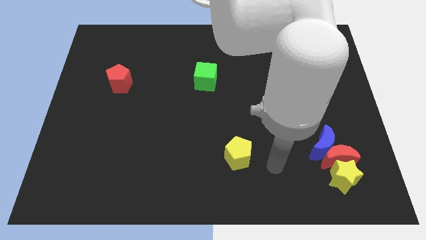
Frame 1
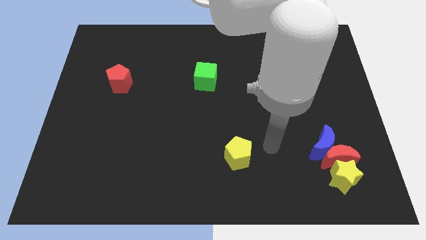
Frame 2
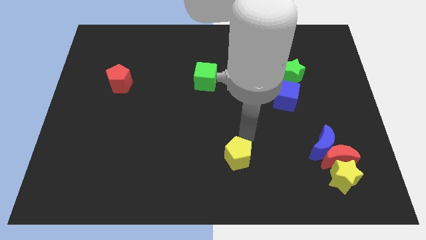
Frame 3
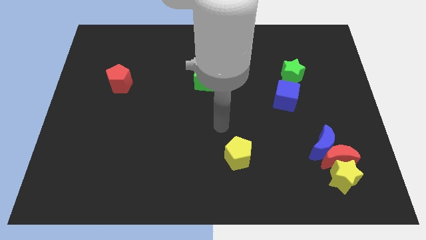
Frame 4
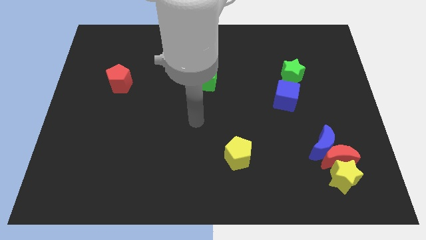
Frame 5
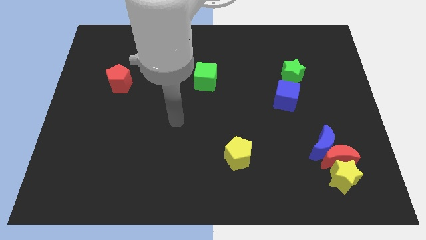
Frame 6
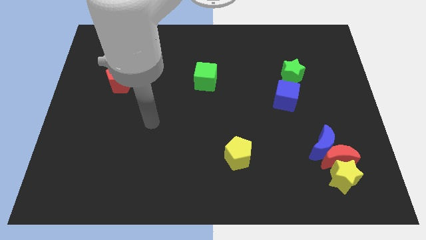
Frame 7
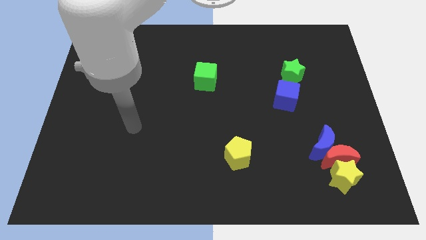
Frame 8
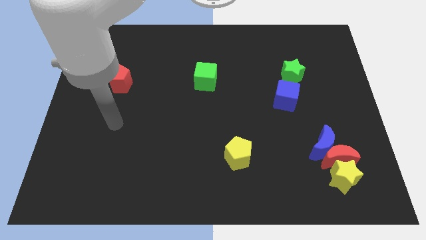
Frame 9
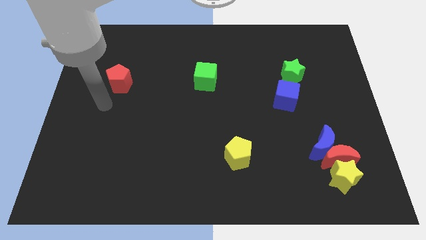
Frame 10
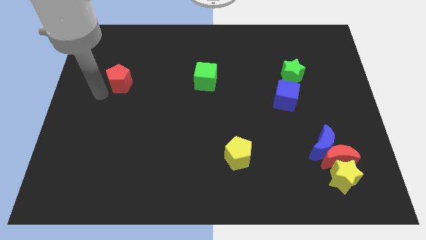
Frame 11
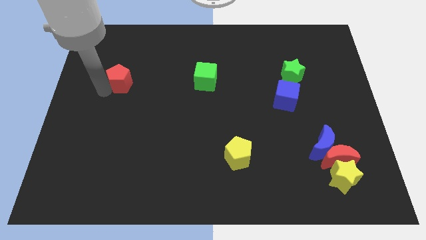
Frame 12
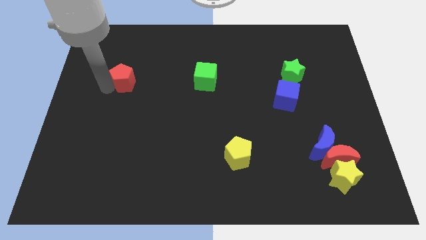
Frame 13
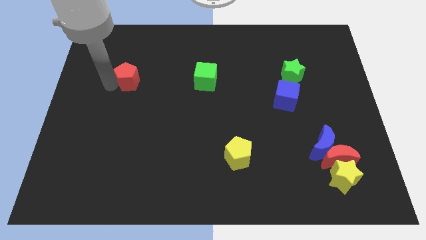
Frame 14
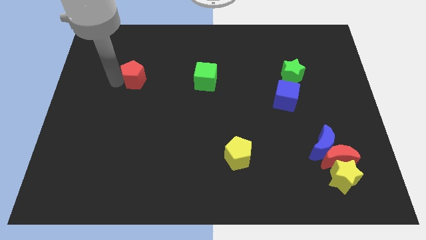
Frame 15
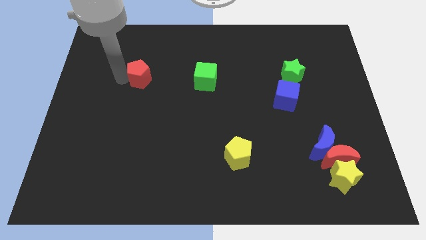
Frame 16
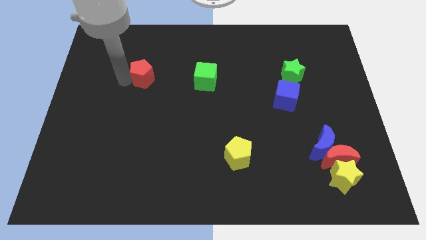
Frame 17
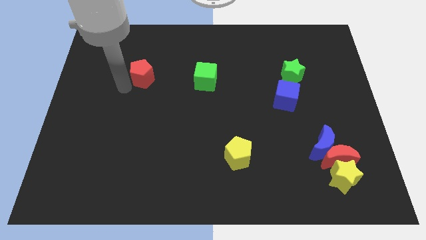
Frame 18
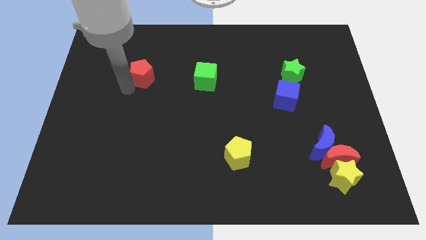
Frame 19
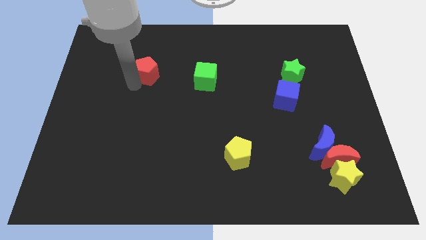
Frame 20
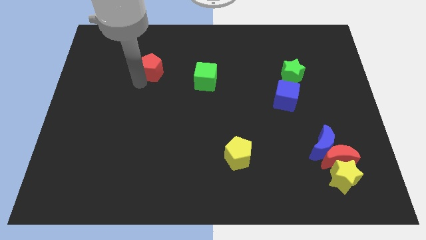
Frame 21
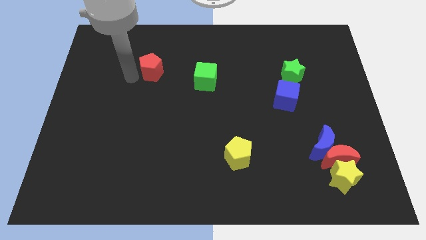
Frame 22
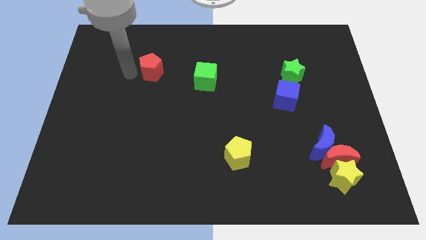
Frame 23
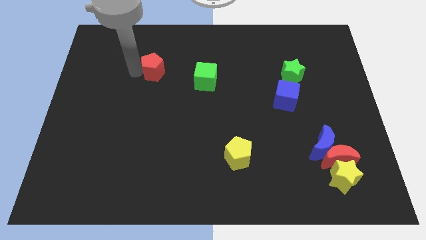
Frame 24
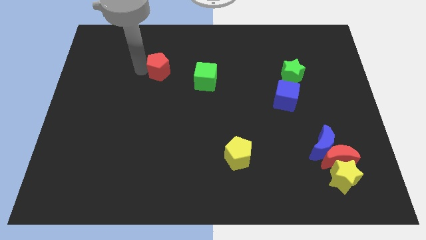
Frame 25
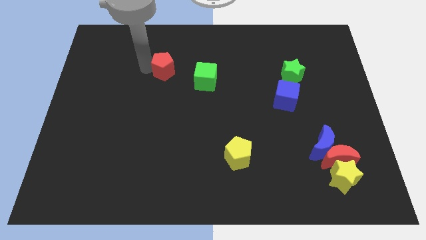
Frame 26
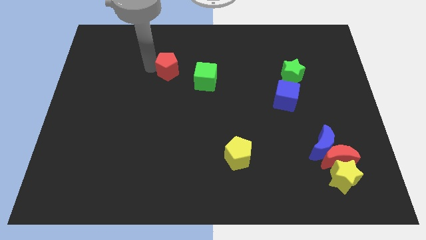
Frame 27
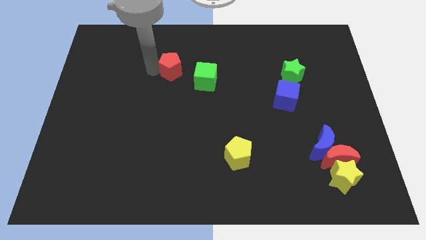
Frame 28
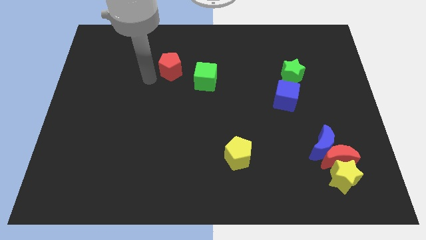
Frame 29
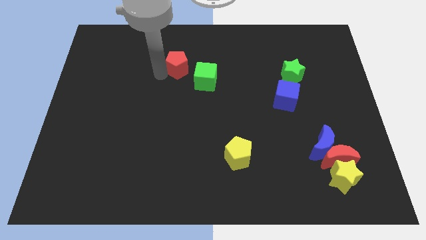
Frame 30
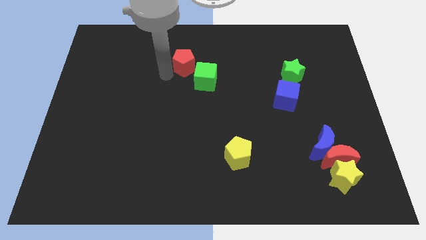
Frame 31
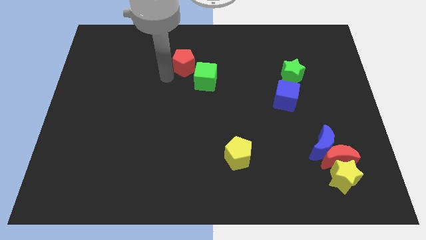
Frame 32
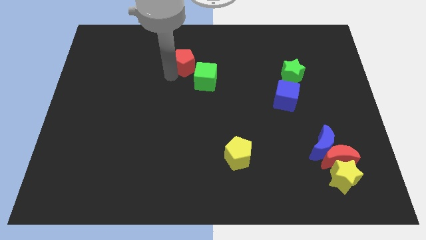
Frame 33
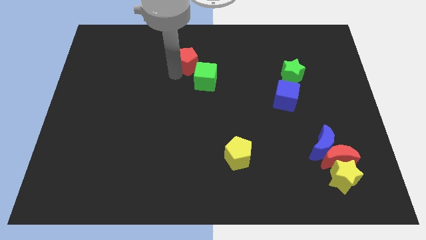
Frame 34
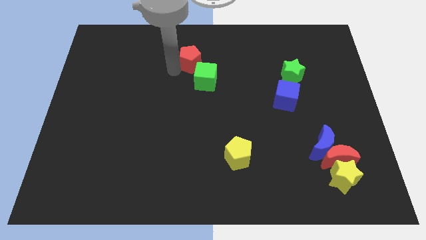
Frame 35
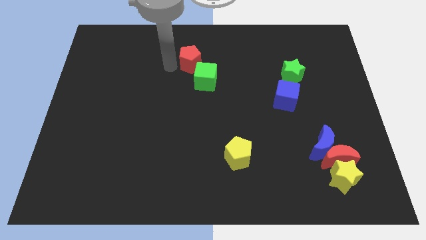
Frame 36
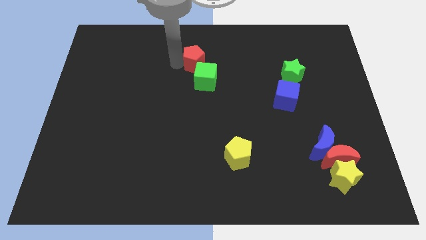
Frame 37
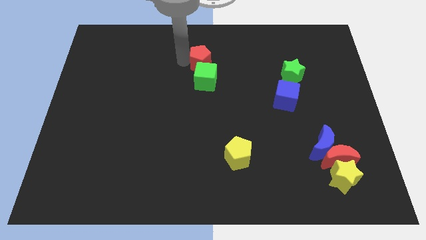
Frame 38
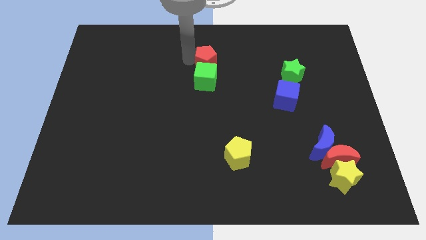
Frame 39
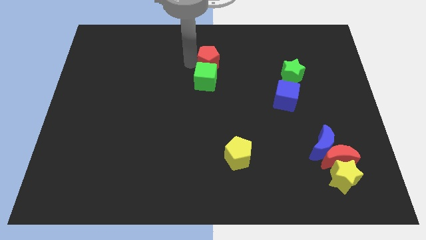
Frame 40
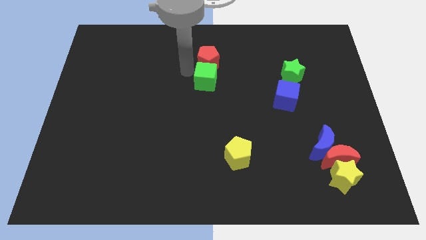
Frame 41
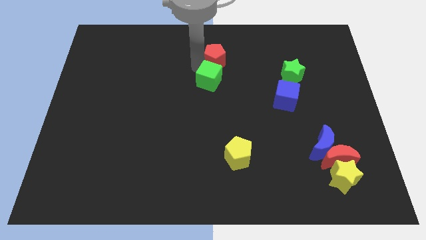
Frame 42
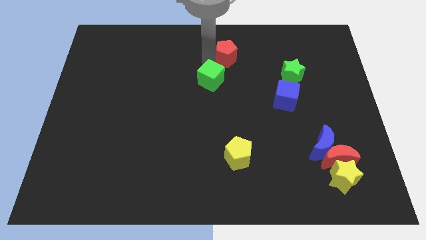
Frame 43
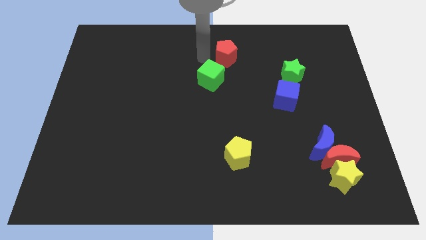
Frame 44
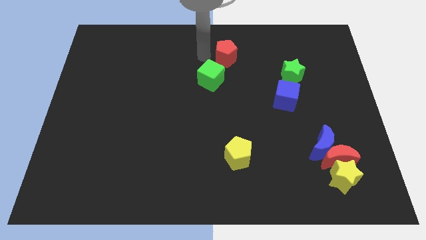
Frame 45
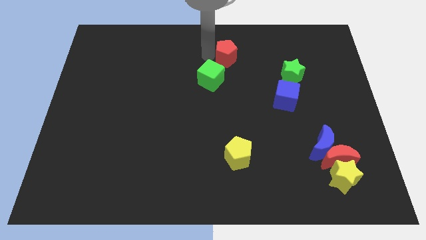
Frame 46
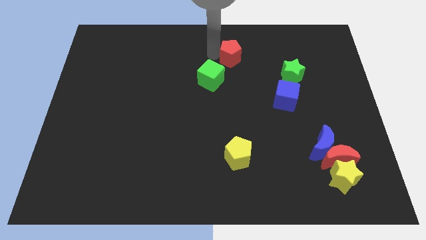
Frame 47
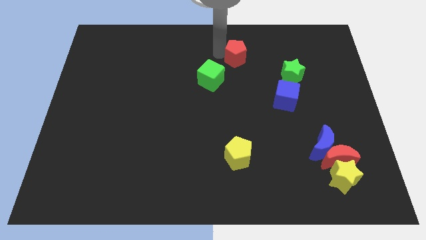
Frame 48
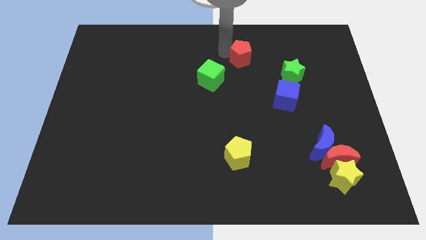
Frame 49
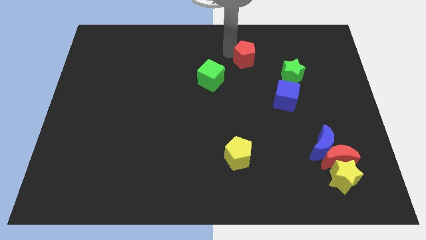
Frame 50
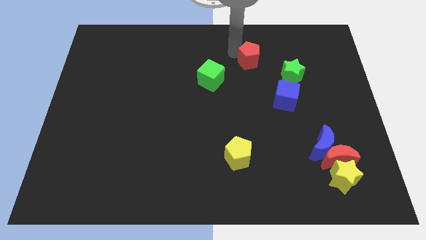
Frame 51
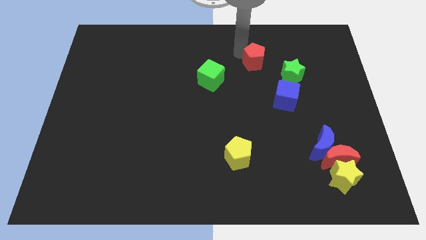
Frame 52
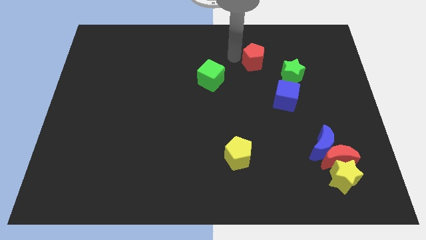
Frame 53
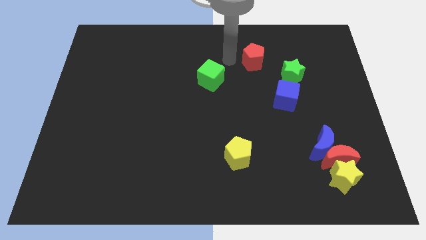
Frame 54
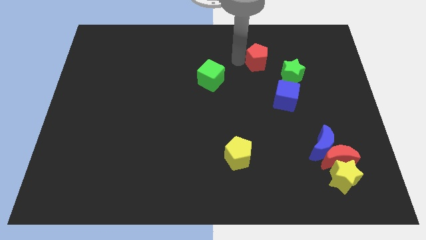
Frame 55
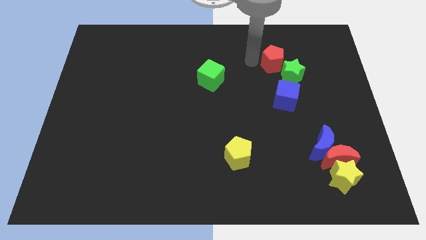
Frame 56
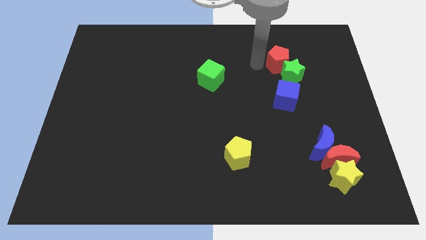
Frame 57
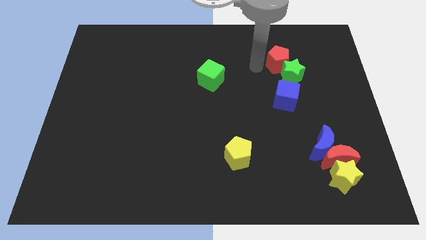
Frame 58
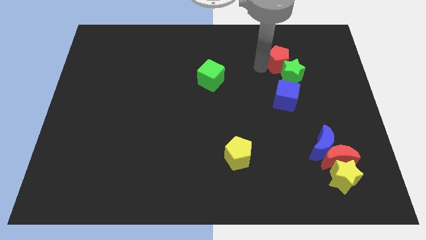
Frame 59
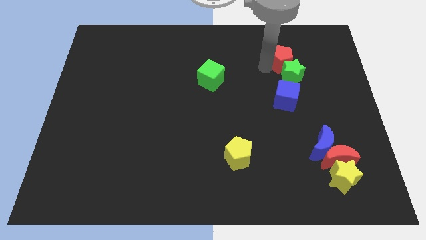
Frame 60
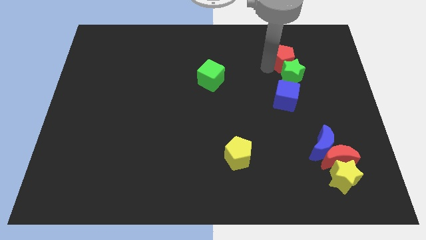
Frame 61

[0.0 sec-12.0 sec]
push the red pentagon diagonally up and to the right of the green star

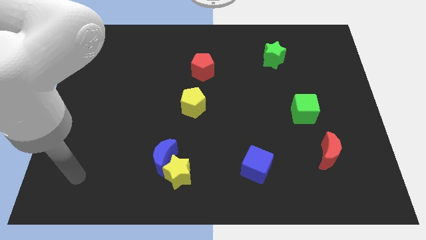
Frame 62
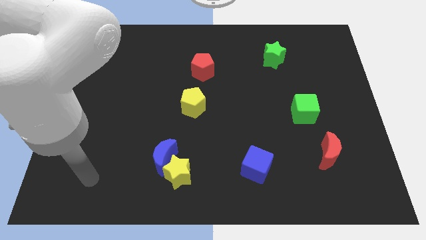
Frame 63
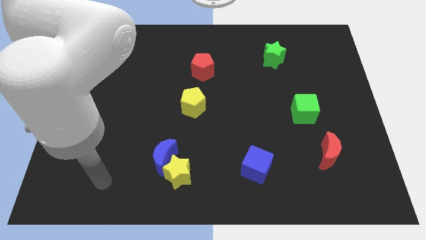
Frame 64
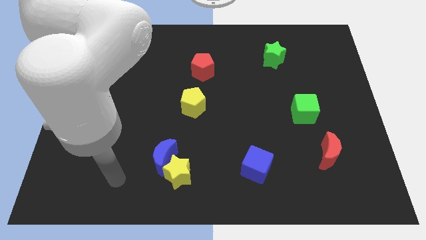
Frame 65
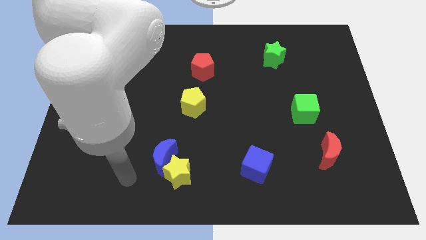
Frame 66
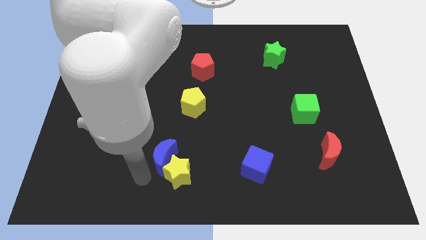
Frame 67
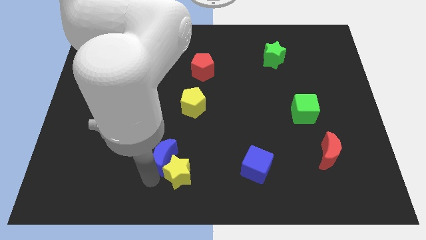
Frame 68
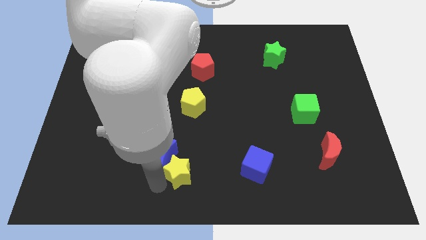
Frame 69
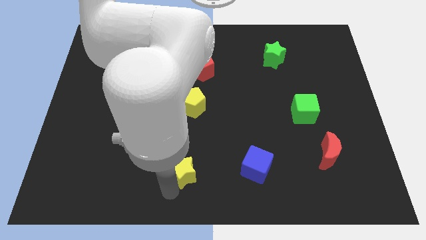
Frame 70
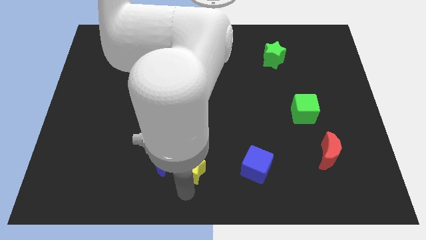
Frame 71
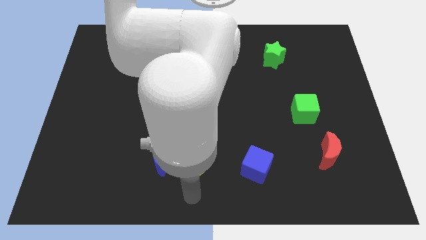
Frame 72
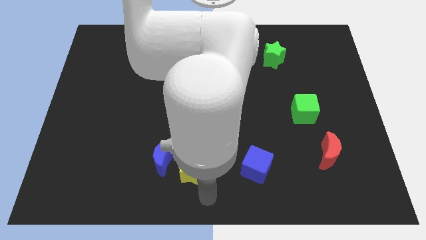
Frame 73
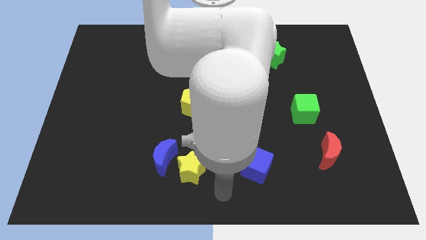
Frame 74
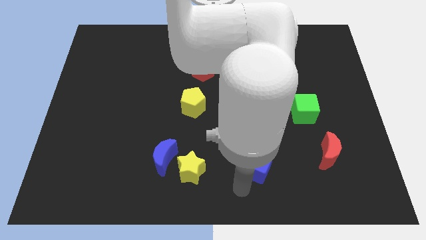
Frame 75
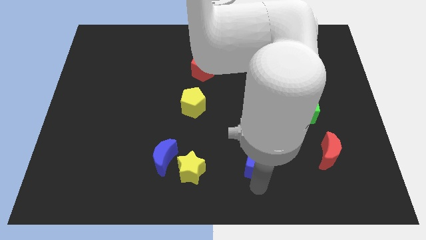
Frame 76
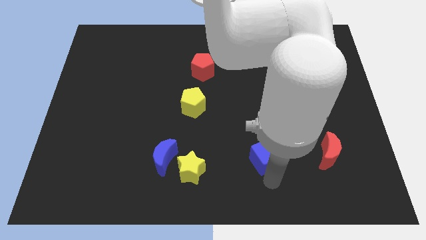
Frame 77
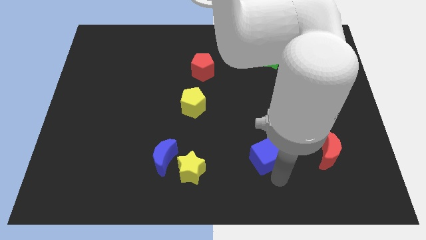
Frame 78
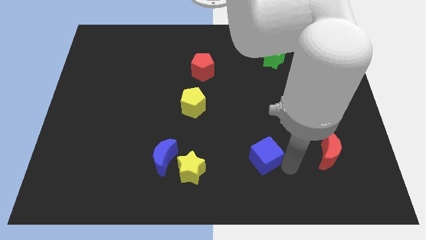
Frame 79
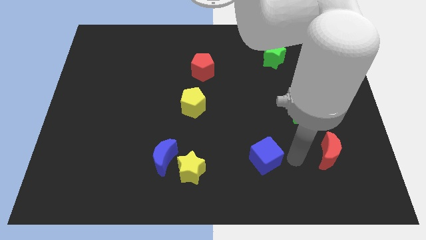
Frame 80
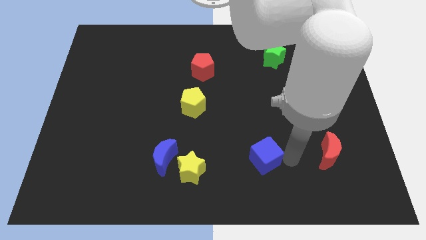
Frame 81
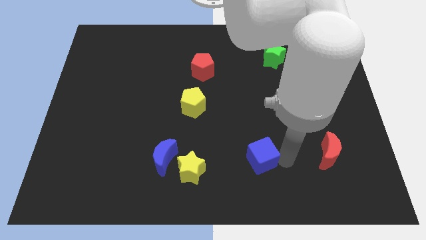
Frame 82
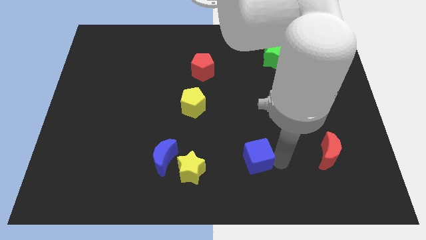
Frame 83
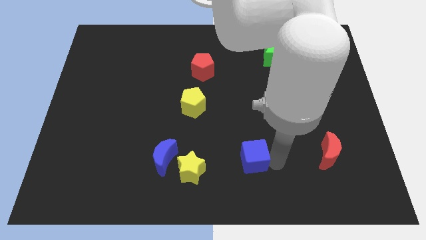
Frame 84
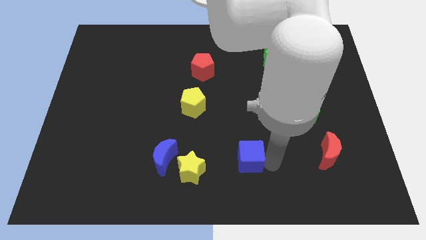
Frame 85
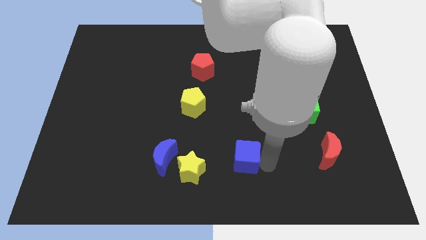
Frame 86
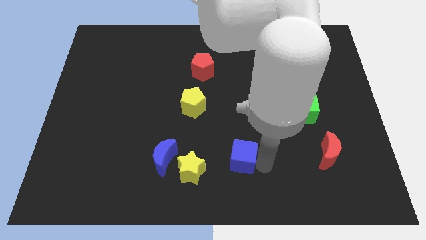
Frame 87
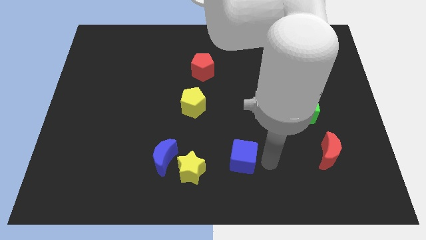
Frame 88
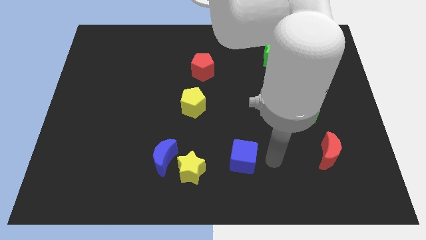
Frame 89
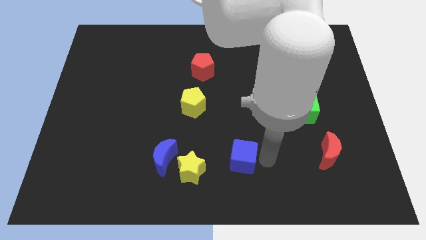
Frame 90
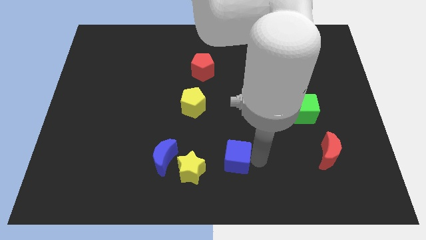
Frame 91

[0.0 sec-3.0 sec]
push the blue cube right of the blue moon
